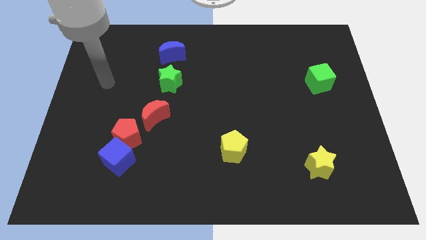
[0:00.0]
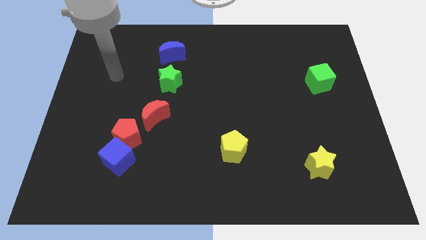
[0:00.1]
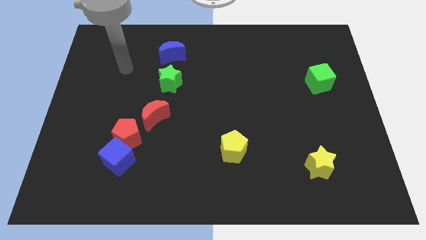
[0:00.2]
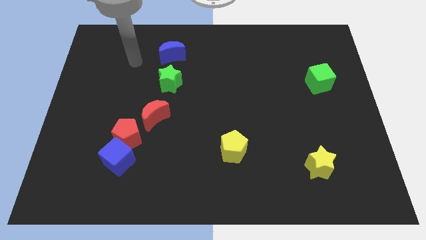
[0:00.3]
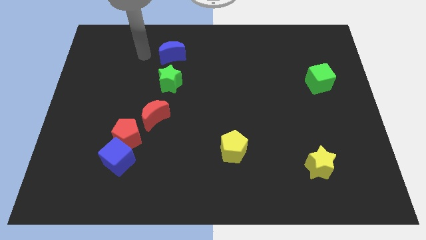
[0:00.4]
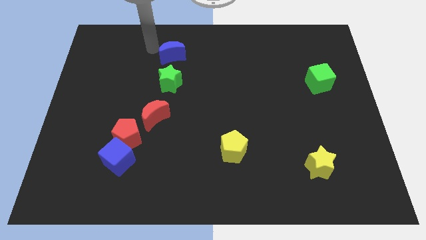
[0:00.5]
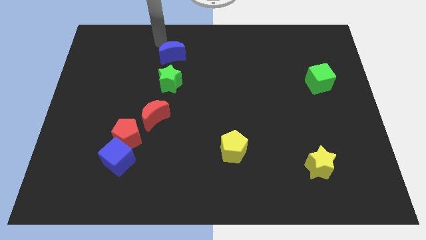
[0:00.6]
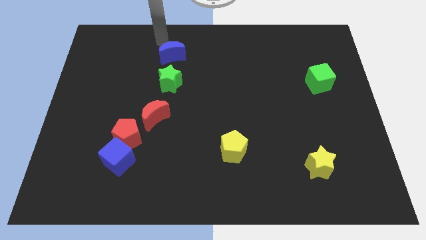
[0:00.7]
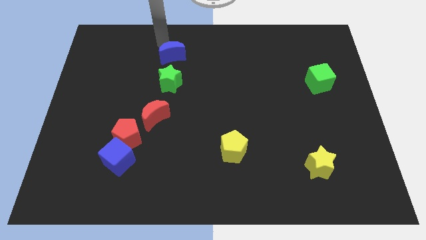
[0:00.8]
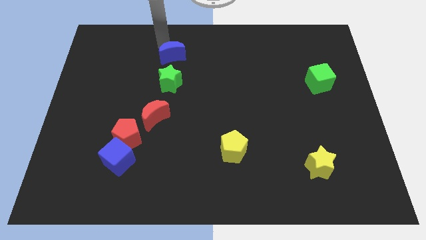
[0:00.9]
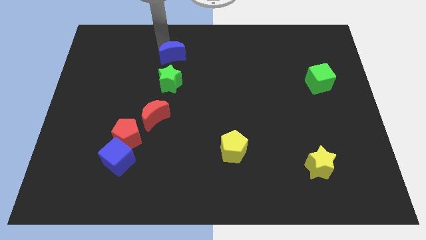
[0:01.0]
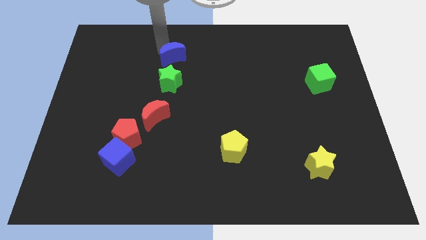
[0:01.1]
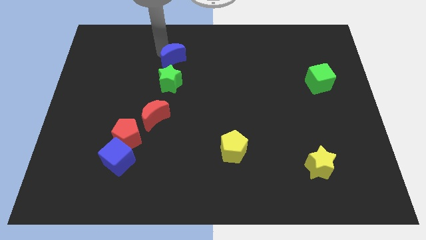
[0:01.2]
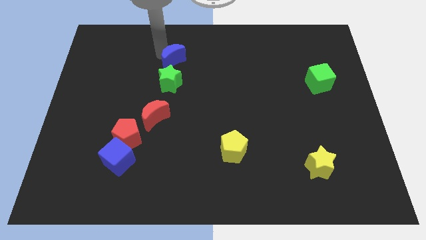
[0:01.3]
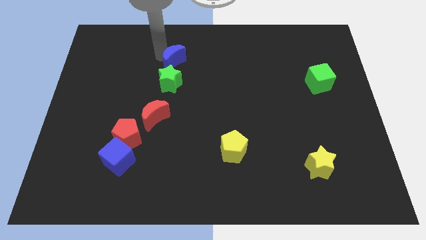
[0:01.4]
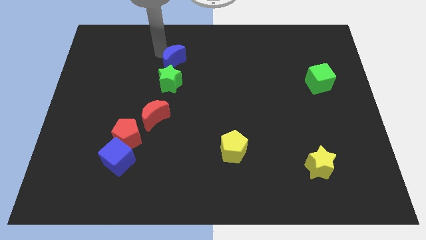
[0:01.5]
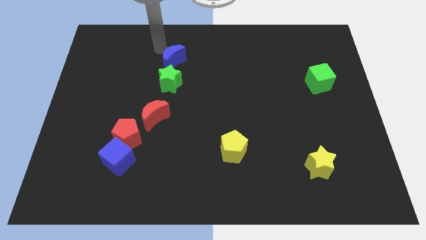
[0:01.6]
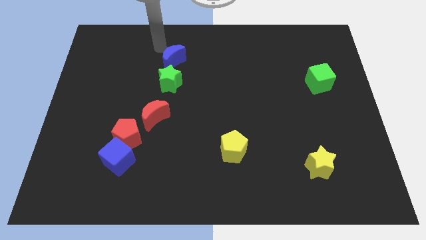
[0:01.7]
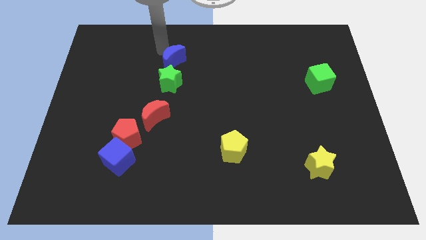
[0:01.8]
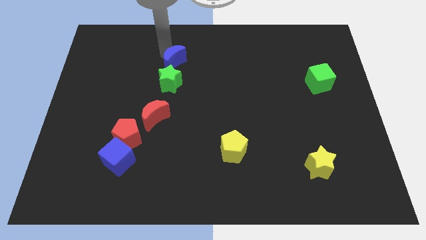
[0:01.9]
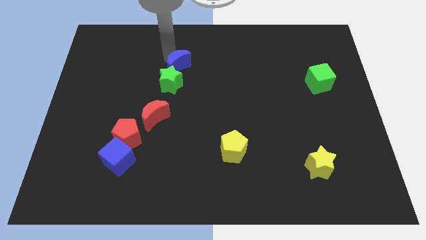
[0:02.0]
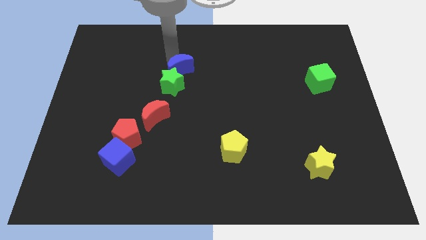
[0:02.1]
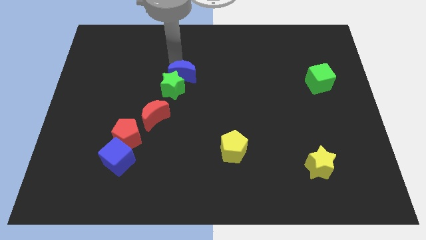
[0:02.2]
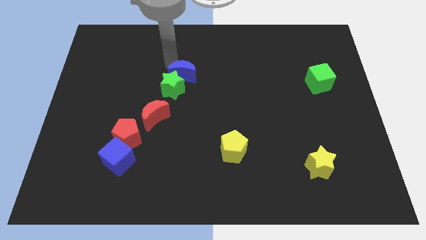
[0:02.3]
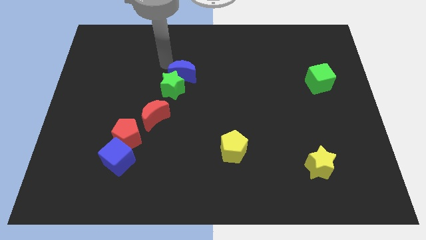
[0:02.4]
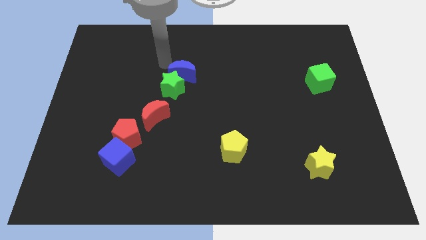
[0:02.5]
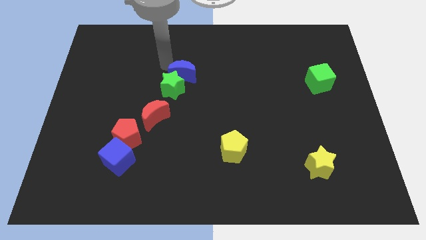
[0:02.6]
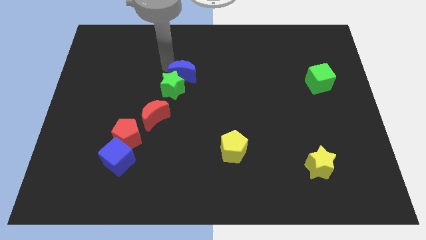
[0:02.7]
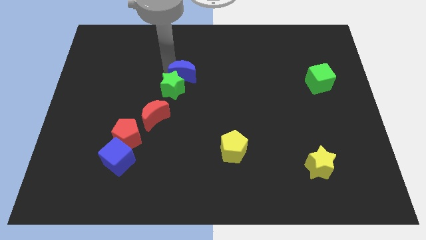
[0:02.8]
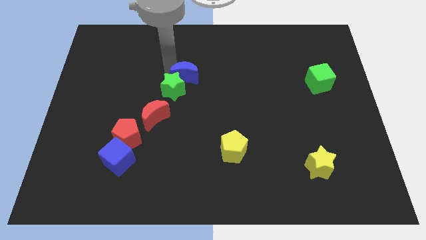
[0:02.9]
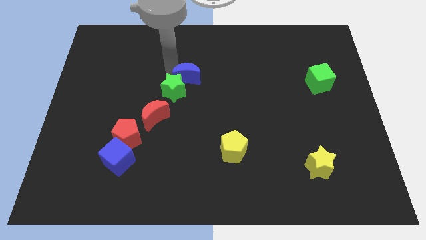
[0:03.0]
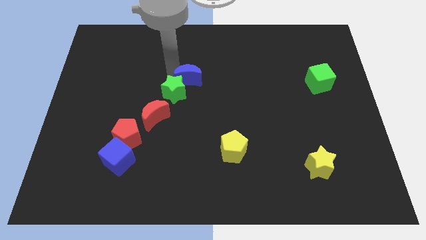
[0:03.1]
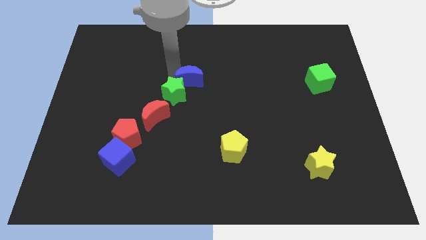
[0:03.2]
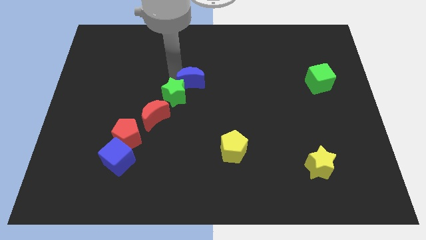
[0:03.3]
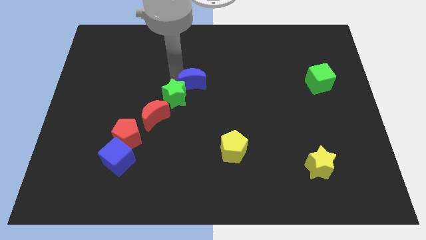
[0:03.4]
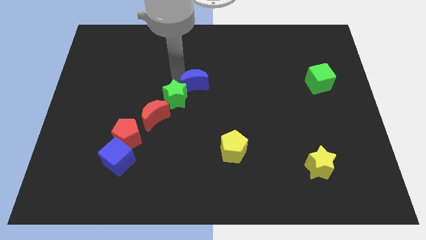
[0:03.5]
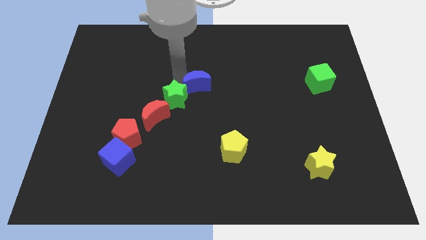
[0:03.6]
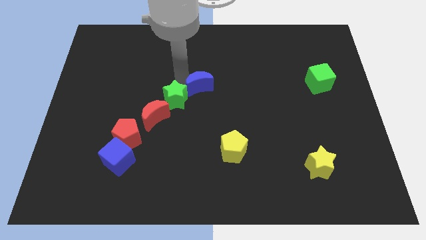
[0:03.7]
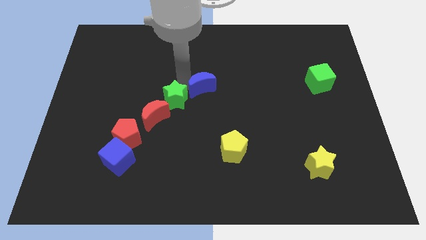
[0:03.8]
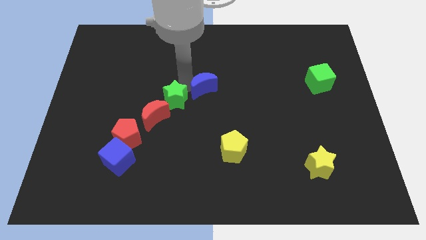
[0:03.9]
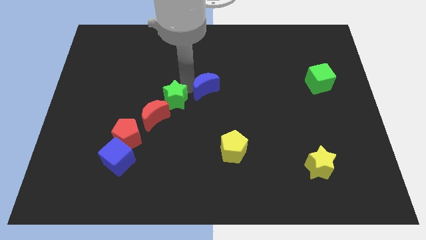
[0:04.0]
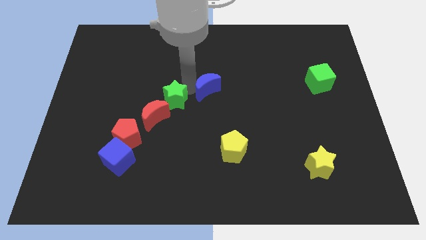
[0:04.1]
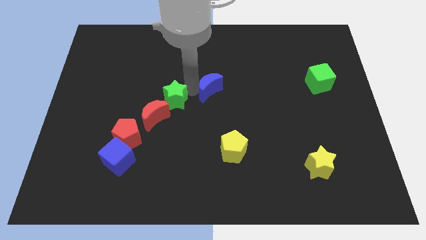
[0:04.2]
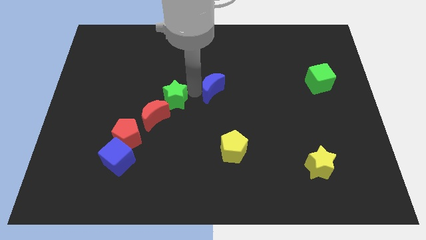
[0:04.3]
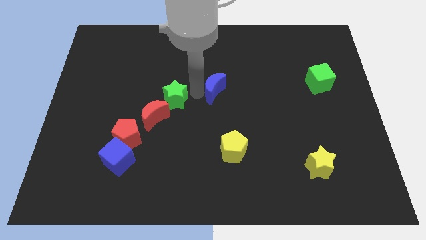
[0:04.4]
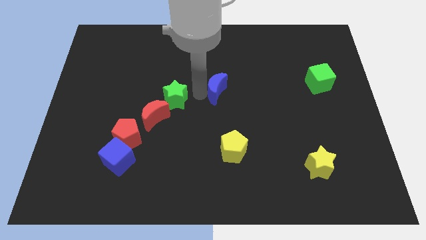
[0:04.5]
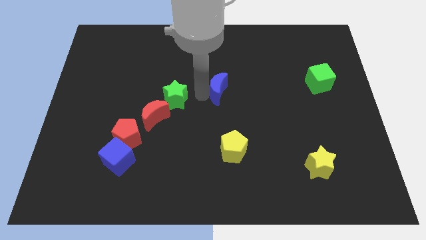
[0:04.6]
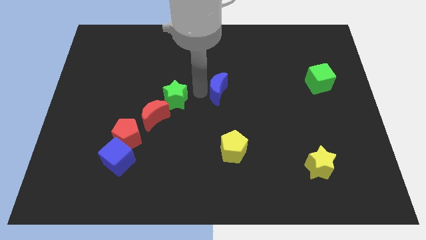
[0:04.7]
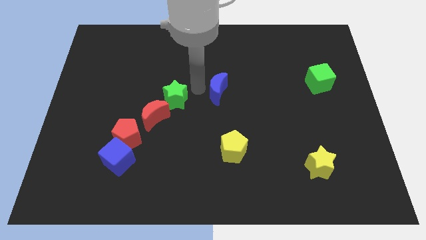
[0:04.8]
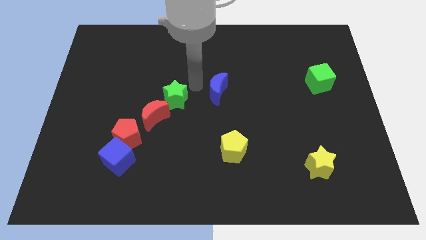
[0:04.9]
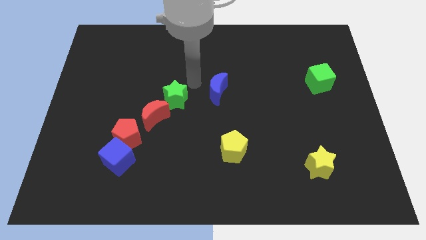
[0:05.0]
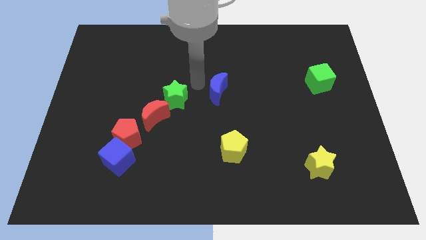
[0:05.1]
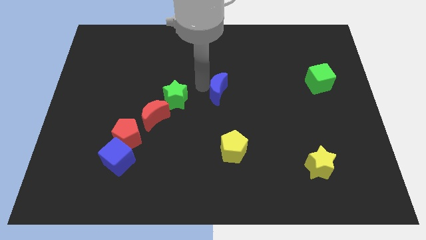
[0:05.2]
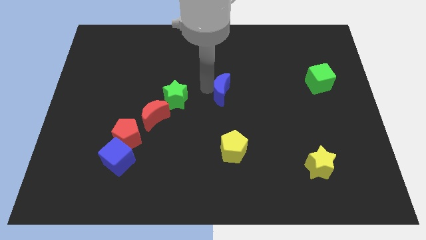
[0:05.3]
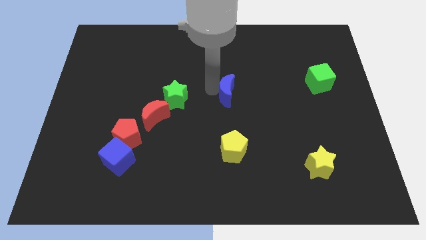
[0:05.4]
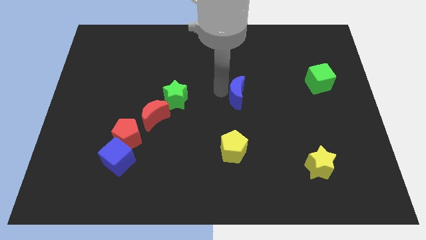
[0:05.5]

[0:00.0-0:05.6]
slide the blue moon downwards and then right

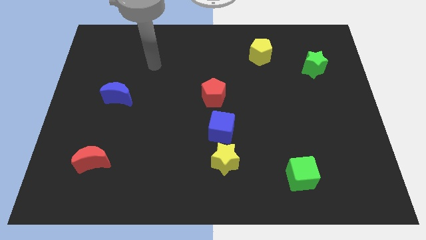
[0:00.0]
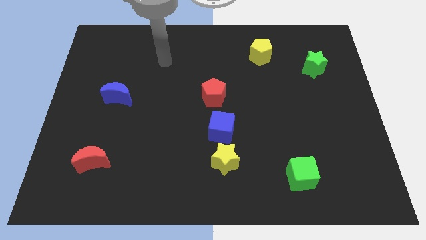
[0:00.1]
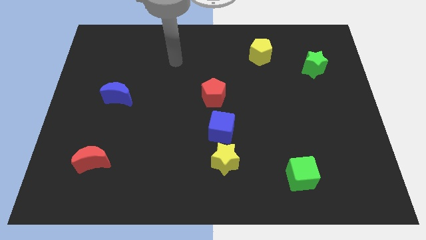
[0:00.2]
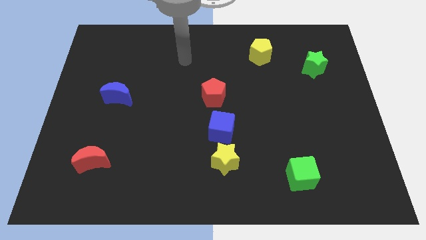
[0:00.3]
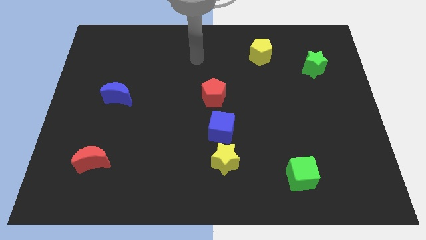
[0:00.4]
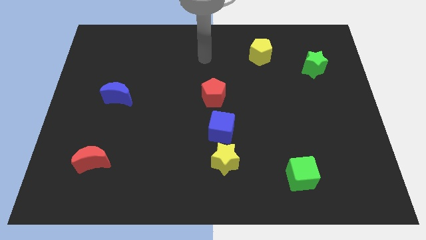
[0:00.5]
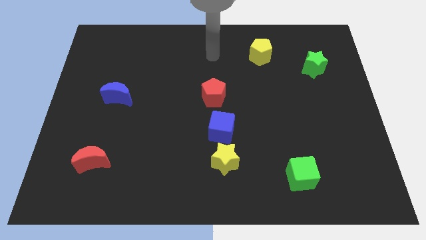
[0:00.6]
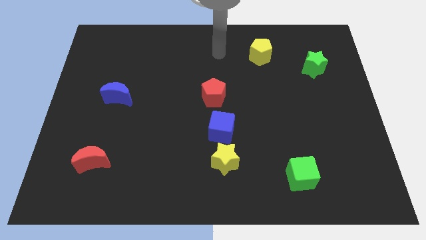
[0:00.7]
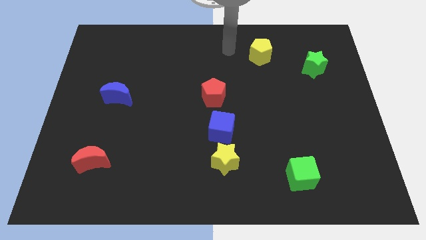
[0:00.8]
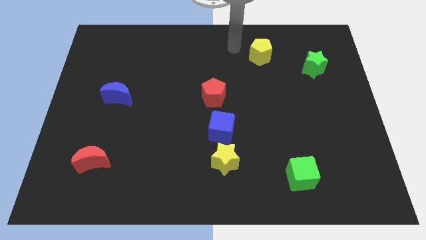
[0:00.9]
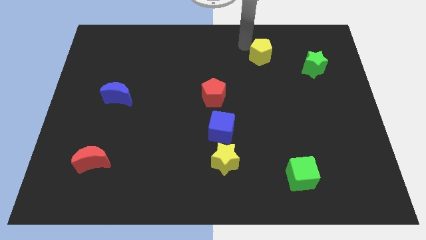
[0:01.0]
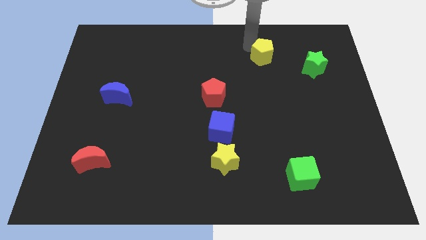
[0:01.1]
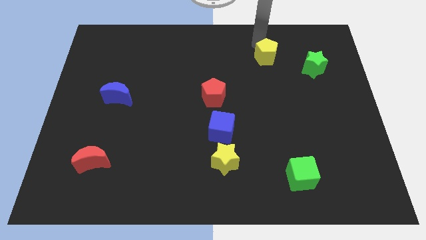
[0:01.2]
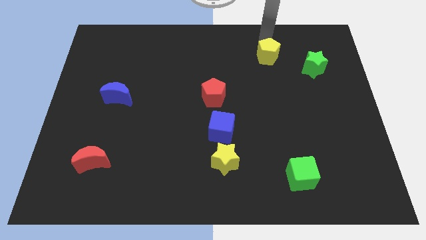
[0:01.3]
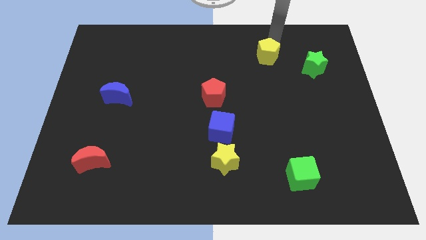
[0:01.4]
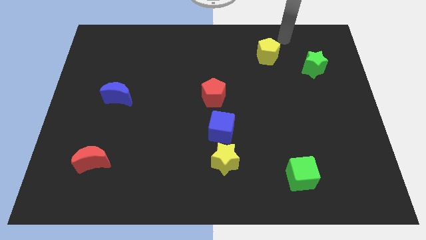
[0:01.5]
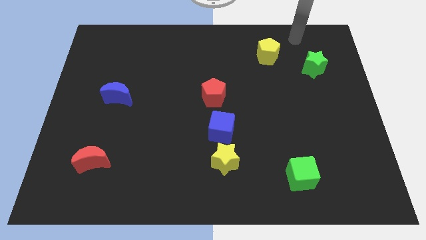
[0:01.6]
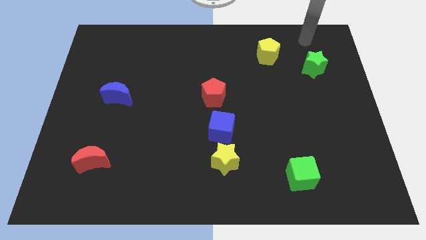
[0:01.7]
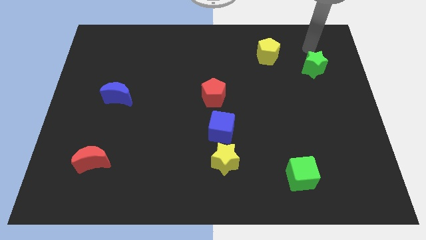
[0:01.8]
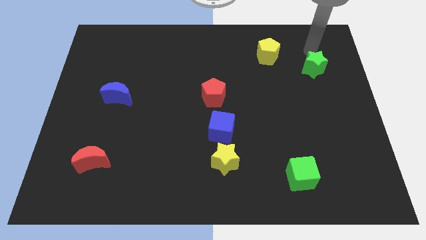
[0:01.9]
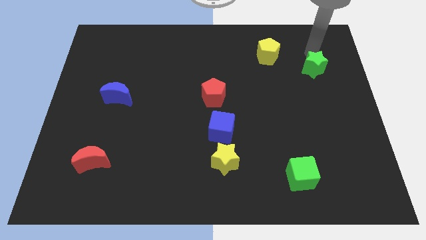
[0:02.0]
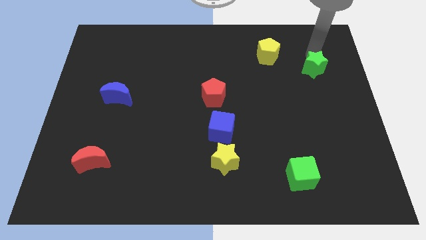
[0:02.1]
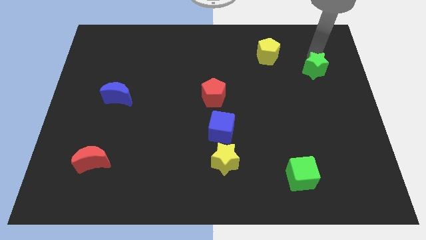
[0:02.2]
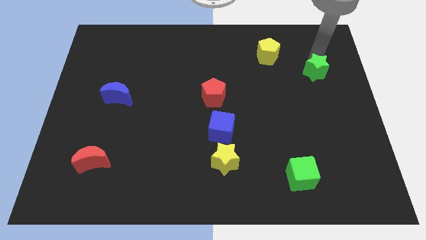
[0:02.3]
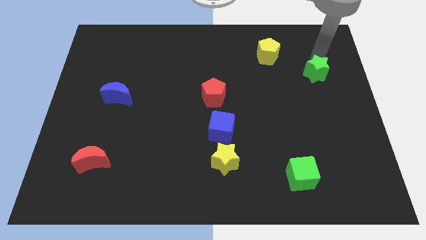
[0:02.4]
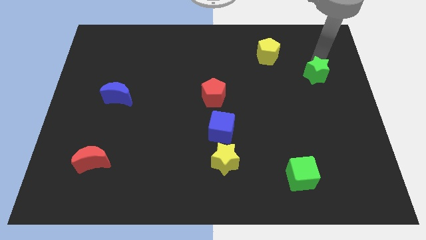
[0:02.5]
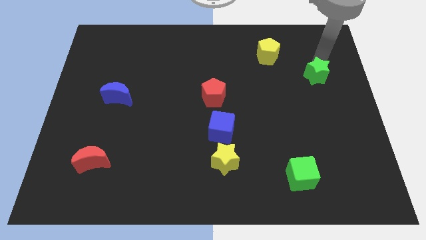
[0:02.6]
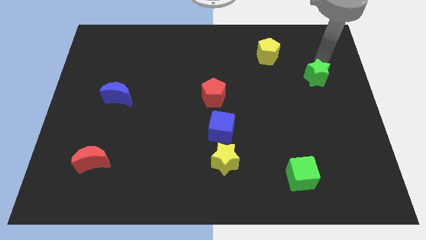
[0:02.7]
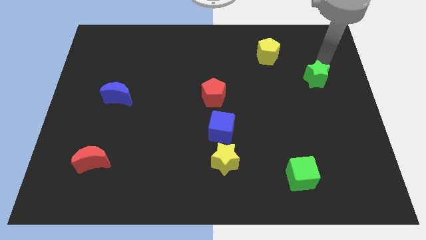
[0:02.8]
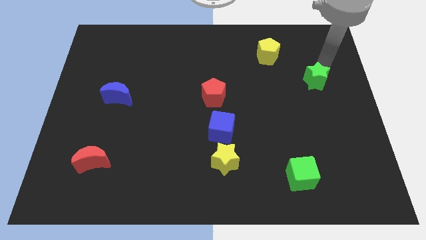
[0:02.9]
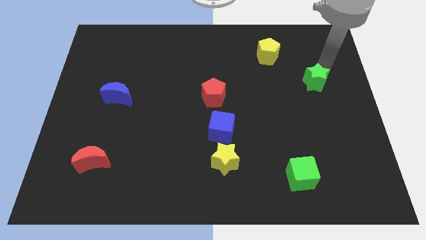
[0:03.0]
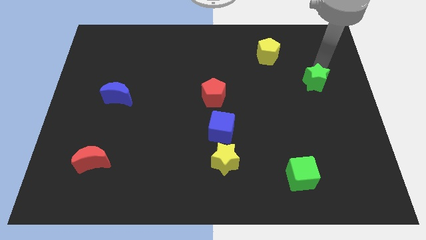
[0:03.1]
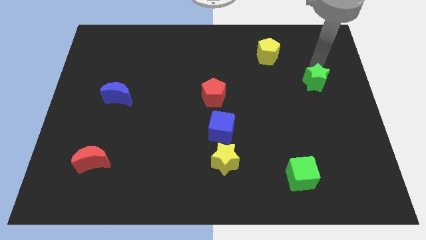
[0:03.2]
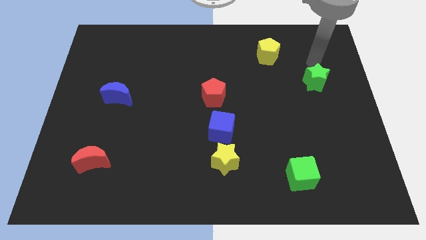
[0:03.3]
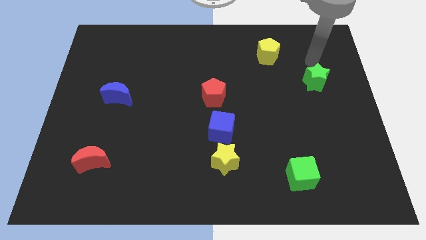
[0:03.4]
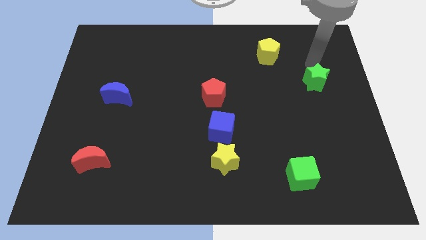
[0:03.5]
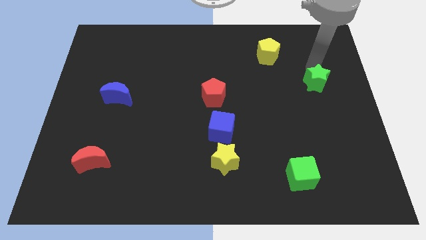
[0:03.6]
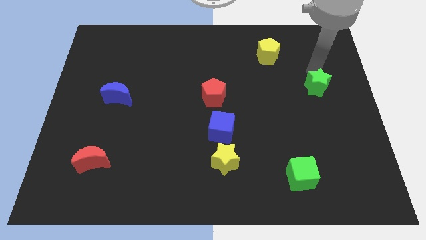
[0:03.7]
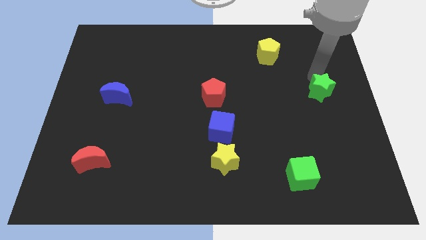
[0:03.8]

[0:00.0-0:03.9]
move the green star down slightly
